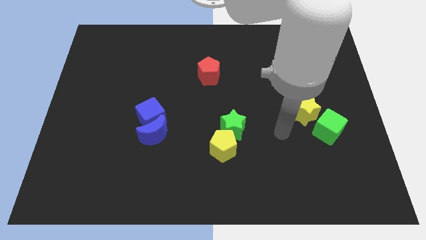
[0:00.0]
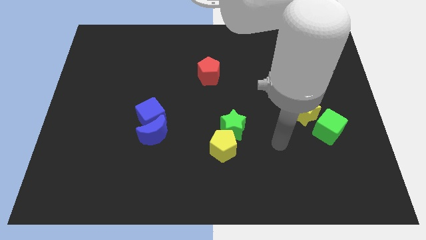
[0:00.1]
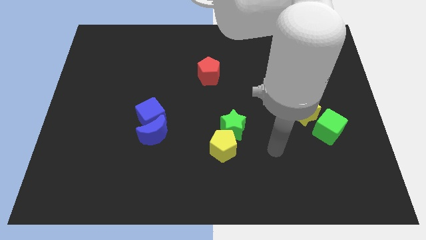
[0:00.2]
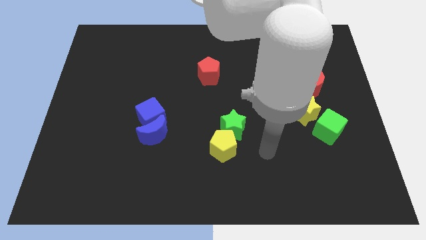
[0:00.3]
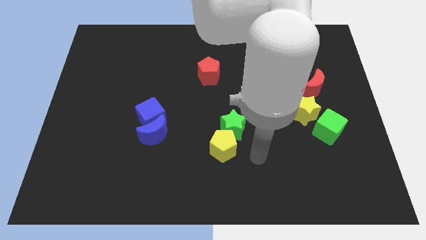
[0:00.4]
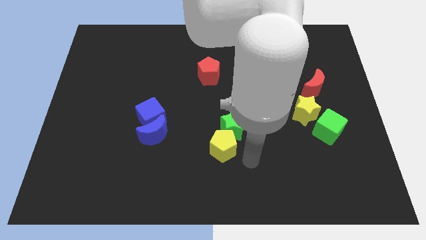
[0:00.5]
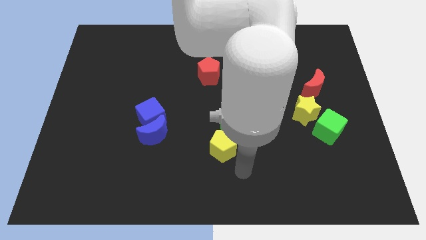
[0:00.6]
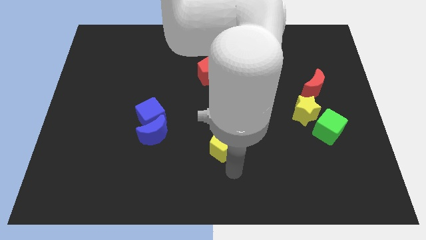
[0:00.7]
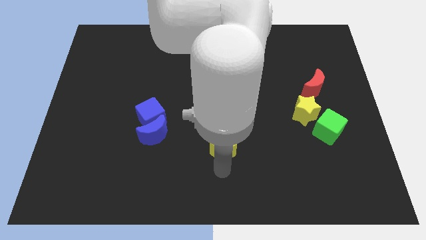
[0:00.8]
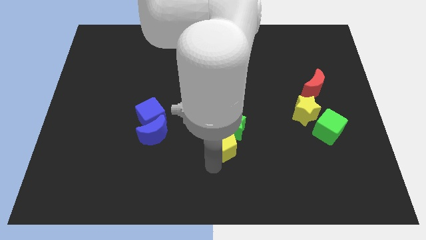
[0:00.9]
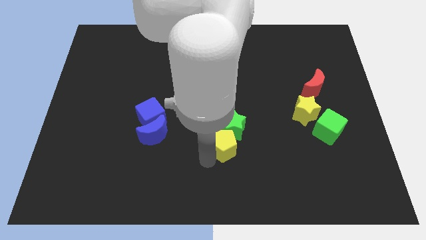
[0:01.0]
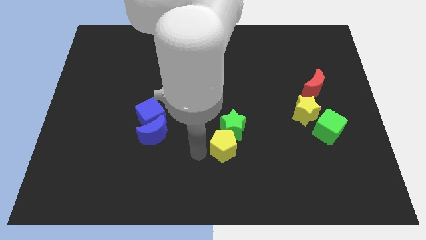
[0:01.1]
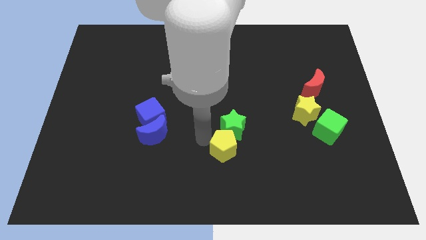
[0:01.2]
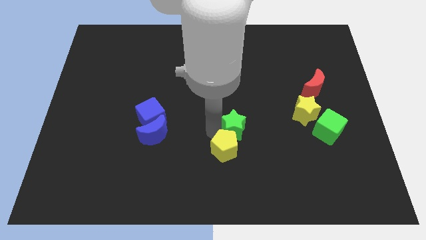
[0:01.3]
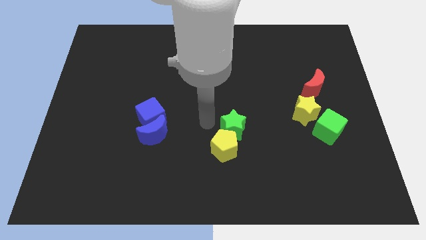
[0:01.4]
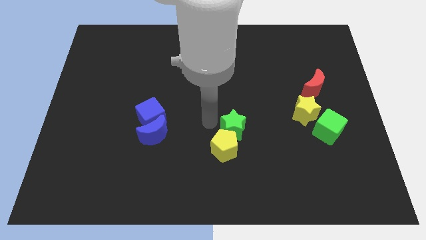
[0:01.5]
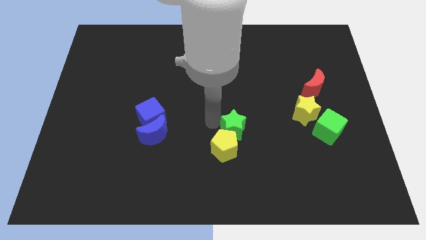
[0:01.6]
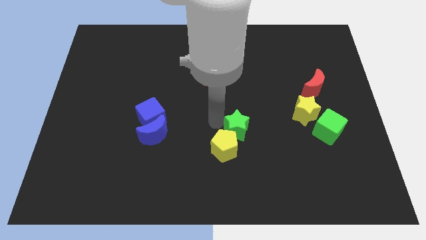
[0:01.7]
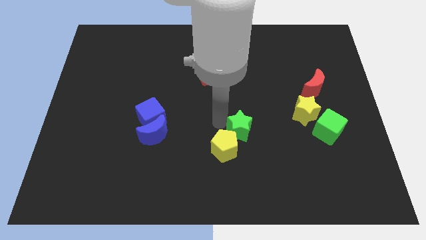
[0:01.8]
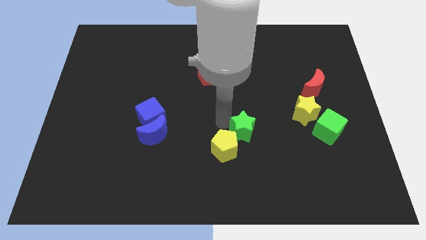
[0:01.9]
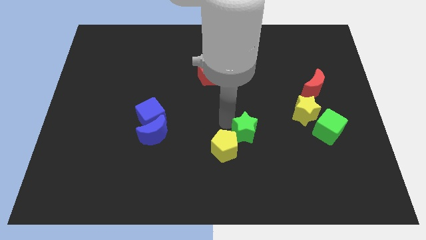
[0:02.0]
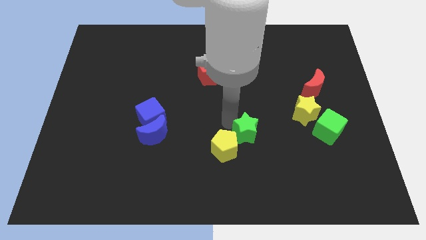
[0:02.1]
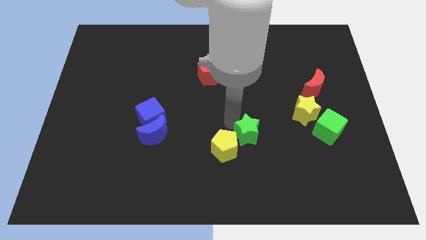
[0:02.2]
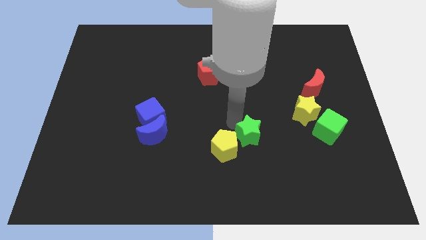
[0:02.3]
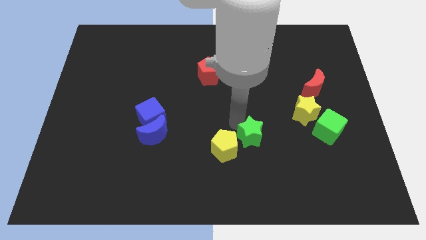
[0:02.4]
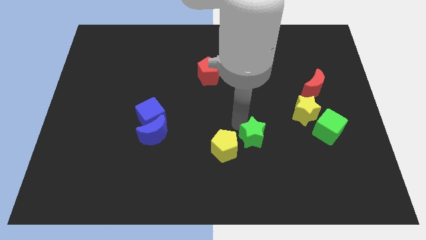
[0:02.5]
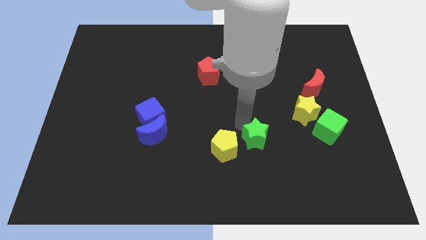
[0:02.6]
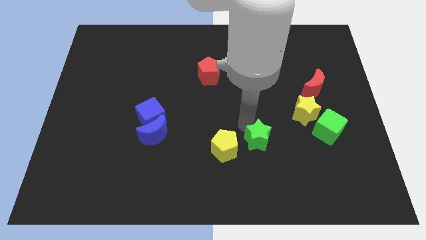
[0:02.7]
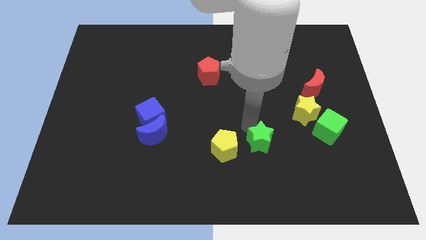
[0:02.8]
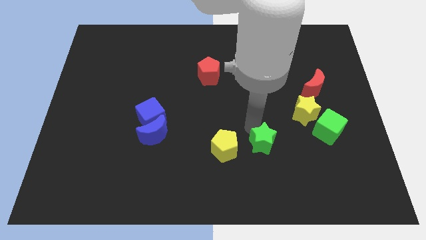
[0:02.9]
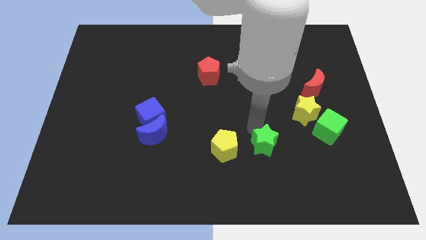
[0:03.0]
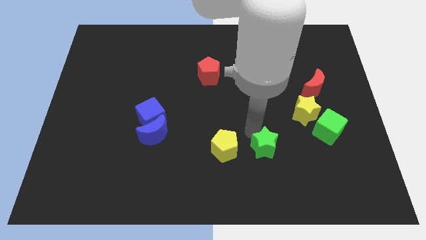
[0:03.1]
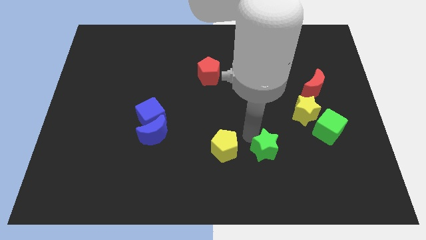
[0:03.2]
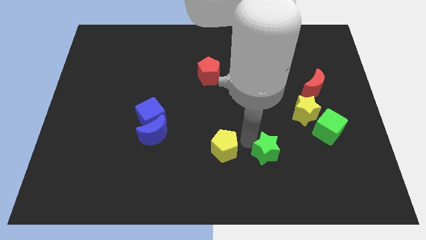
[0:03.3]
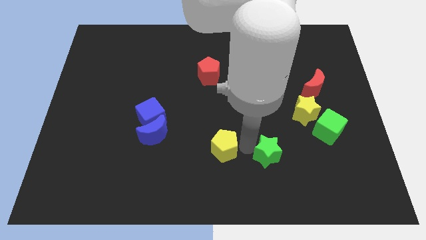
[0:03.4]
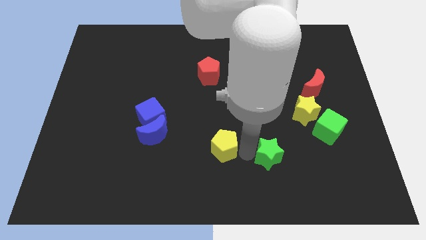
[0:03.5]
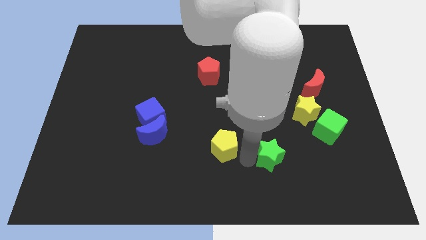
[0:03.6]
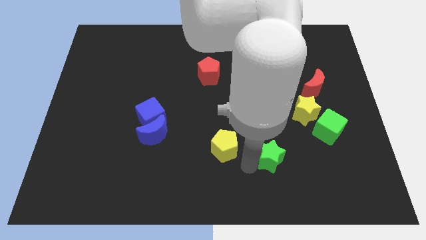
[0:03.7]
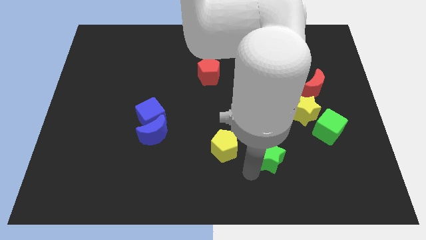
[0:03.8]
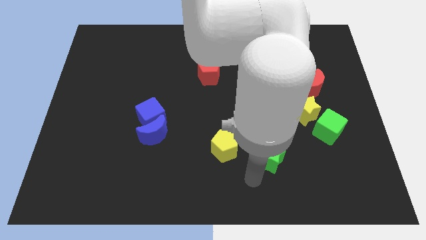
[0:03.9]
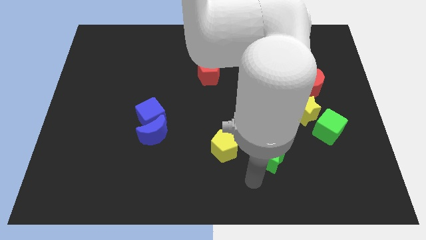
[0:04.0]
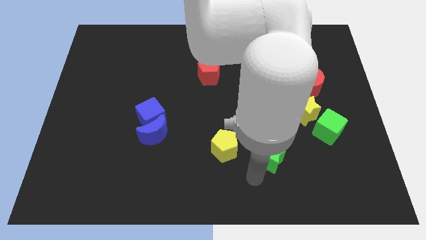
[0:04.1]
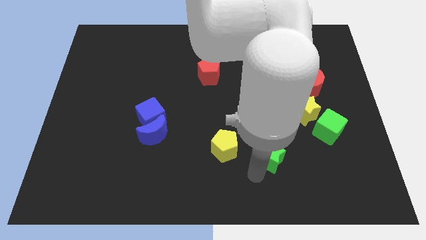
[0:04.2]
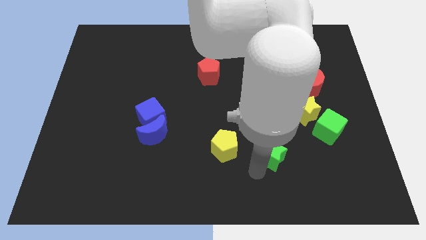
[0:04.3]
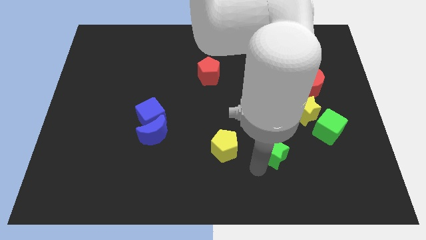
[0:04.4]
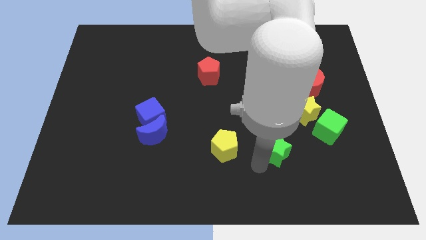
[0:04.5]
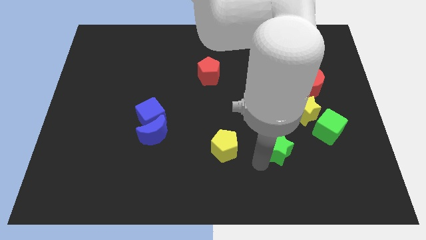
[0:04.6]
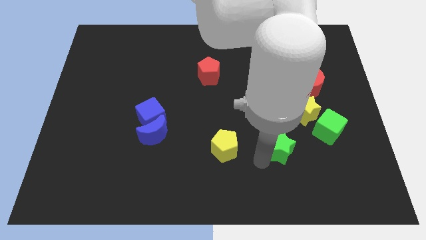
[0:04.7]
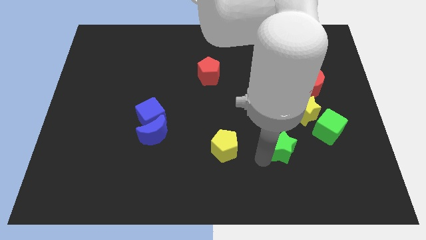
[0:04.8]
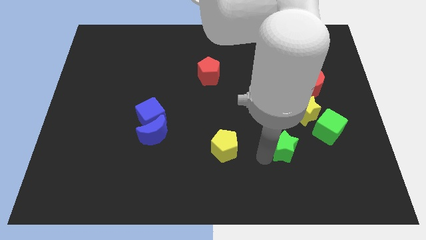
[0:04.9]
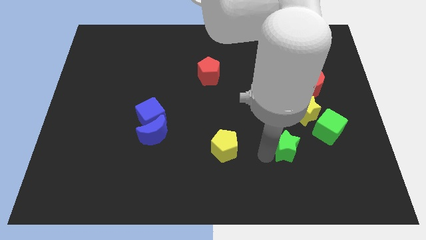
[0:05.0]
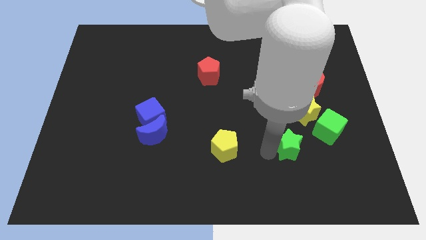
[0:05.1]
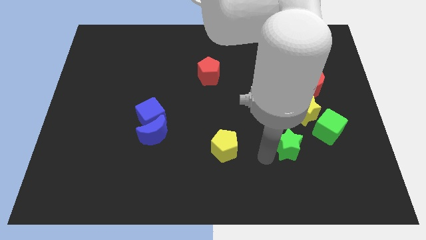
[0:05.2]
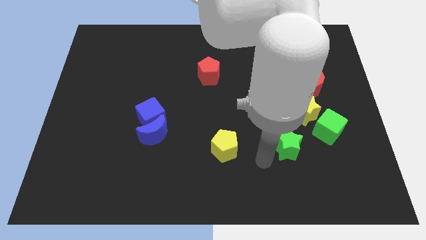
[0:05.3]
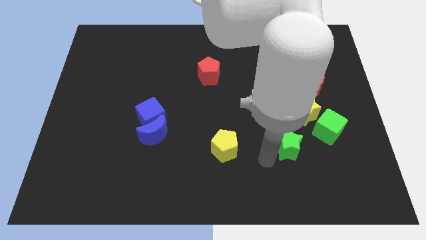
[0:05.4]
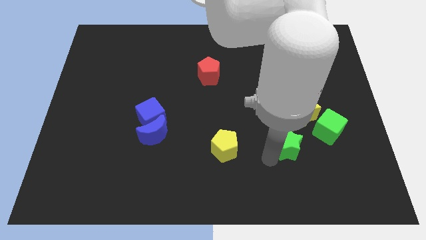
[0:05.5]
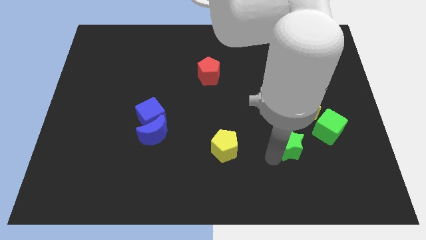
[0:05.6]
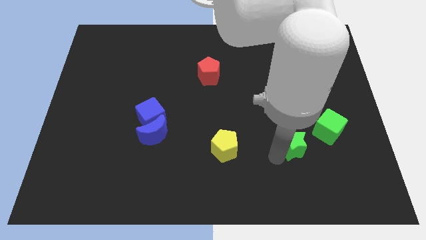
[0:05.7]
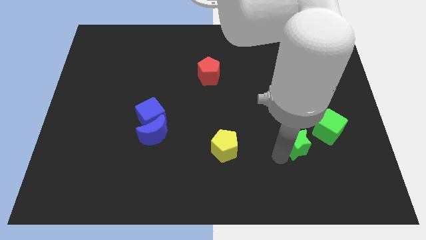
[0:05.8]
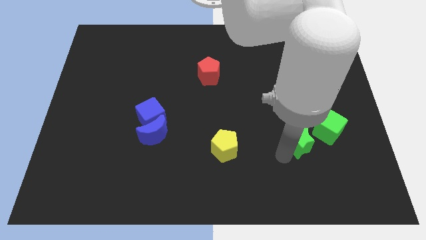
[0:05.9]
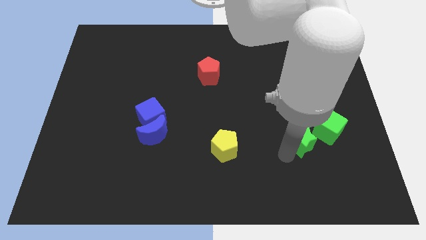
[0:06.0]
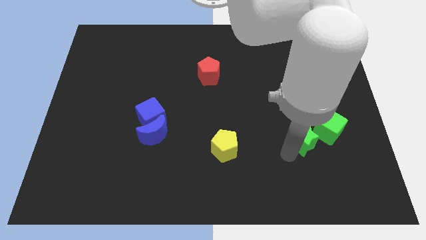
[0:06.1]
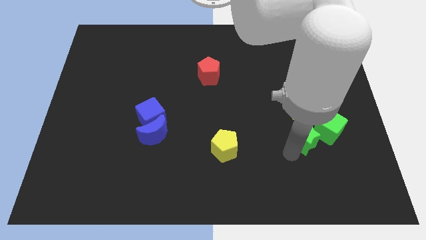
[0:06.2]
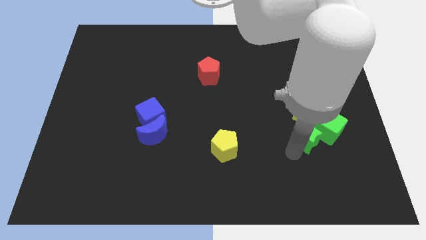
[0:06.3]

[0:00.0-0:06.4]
push the green star towards the green cube

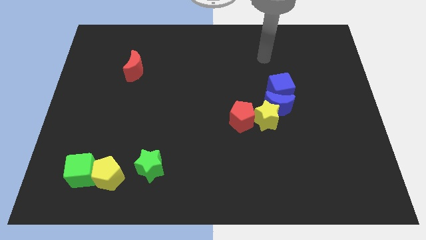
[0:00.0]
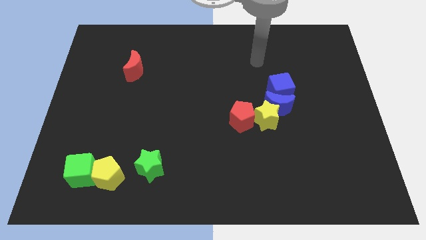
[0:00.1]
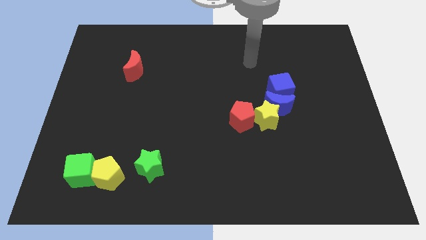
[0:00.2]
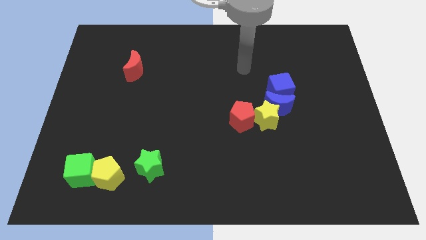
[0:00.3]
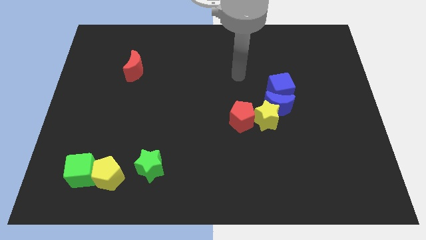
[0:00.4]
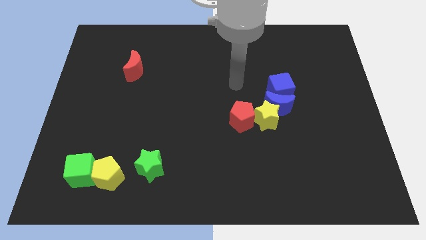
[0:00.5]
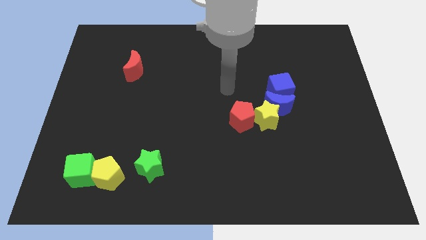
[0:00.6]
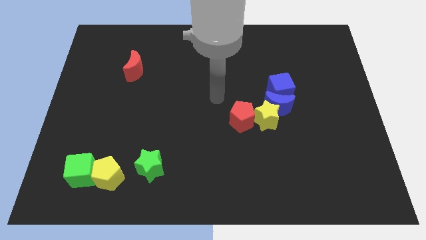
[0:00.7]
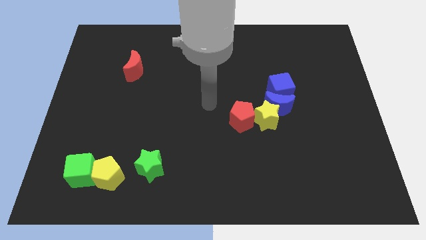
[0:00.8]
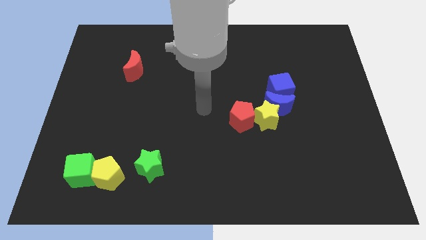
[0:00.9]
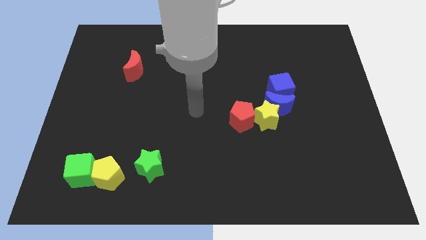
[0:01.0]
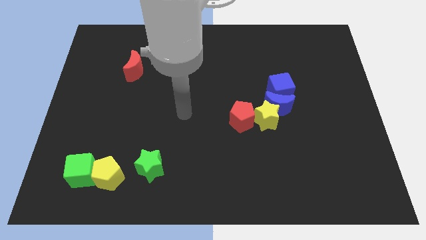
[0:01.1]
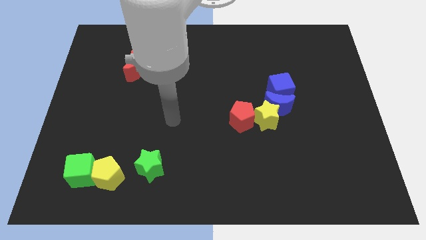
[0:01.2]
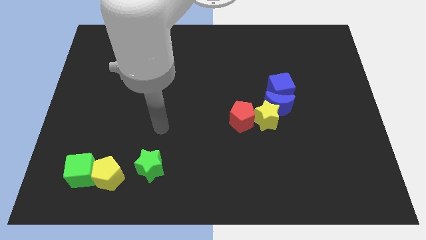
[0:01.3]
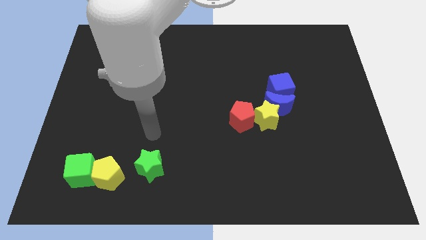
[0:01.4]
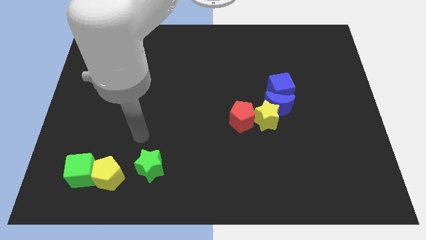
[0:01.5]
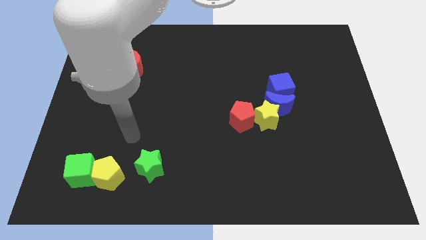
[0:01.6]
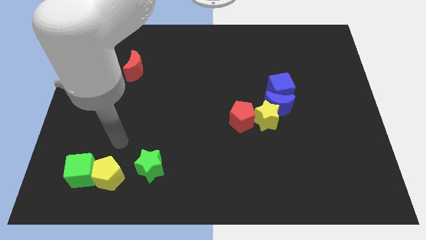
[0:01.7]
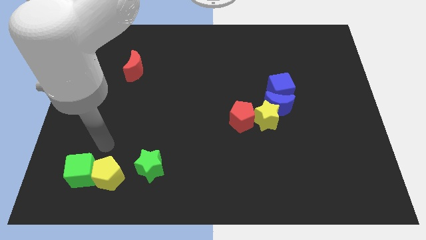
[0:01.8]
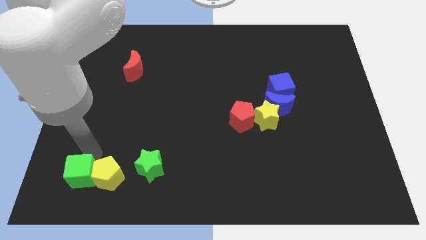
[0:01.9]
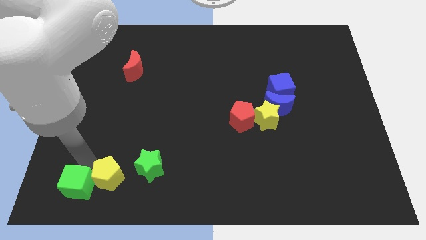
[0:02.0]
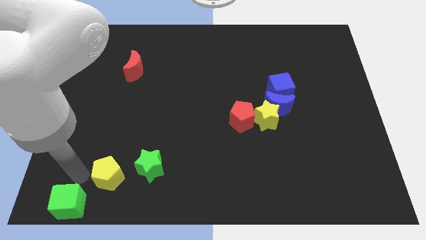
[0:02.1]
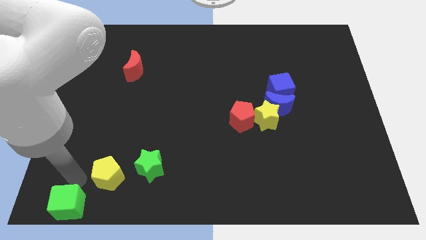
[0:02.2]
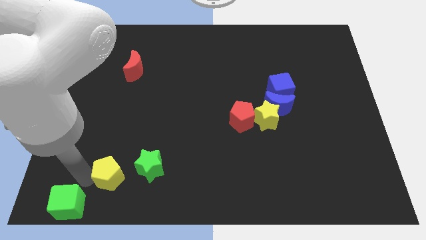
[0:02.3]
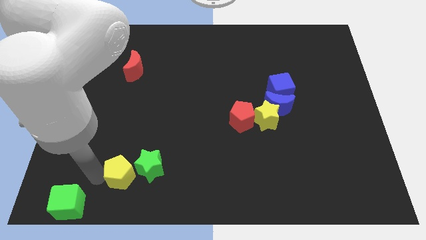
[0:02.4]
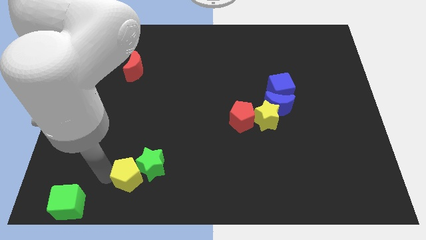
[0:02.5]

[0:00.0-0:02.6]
push the yellow pentagon towards the green star
